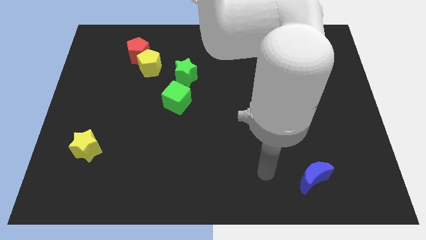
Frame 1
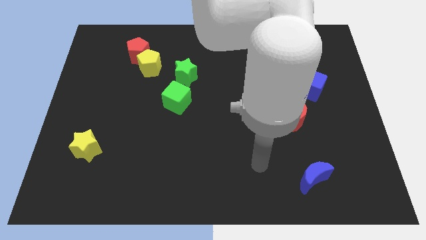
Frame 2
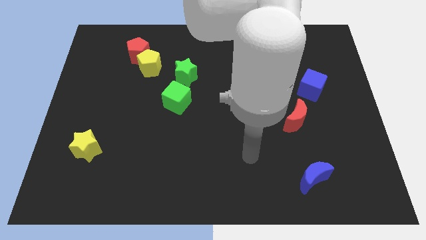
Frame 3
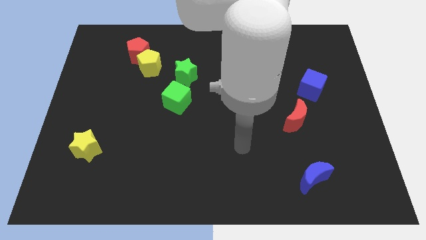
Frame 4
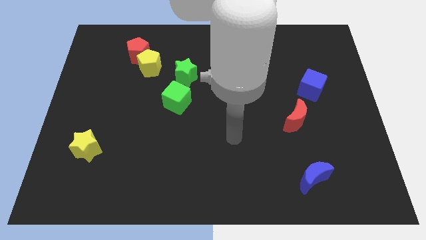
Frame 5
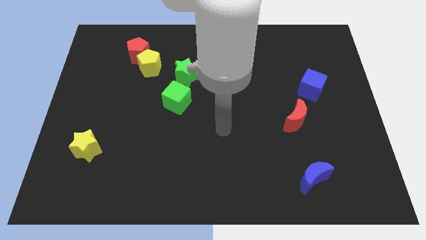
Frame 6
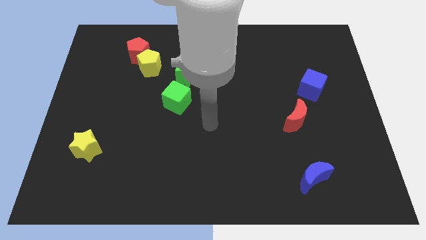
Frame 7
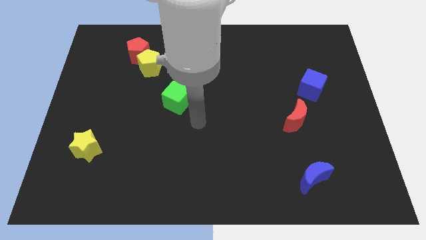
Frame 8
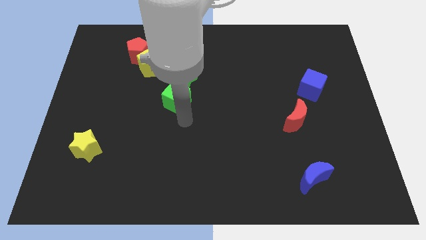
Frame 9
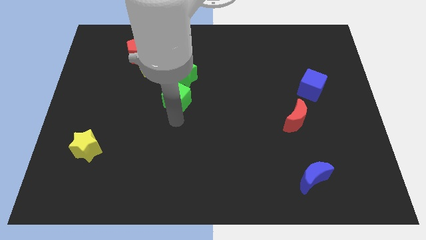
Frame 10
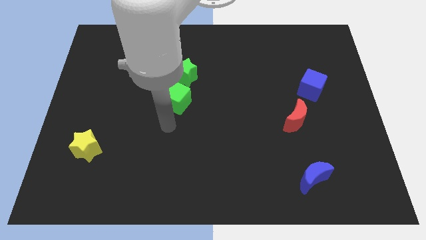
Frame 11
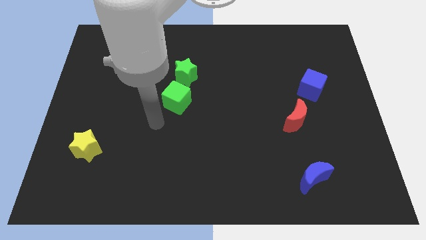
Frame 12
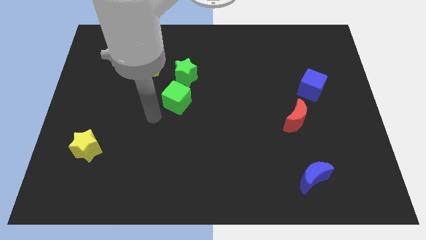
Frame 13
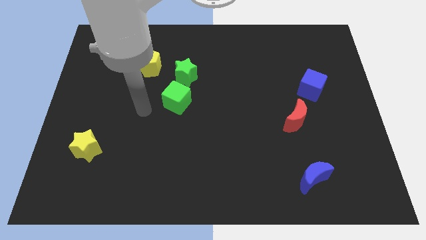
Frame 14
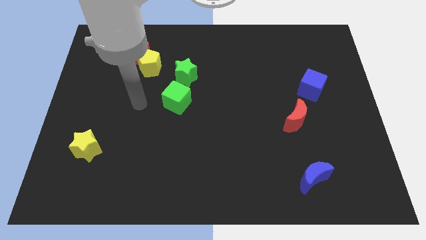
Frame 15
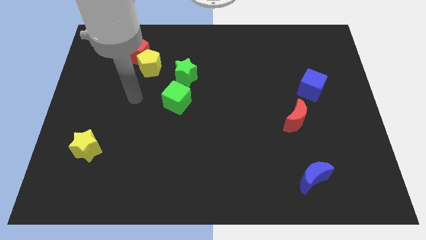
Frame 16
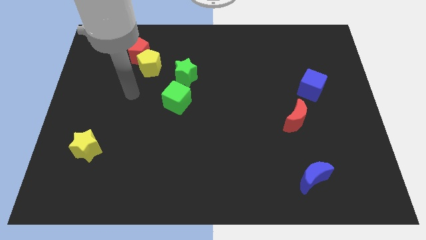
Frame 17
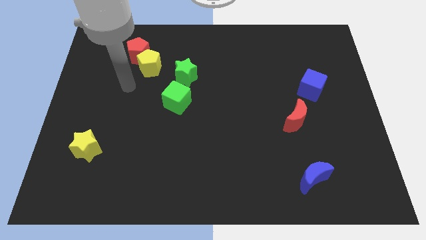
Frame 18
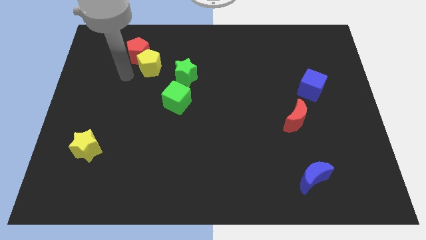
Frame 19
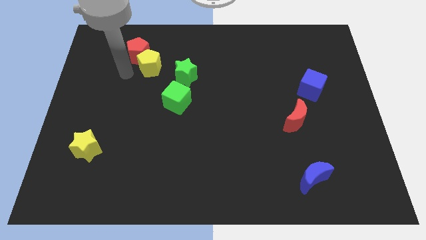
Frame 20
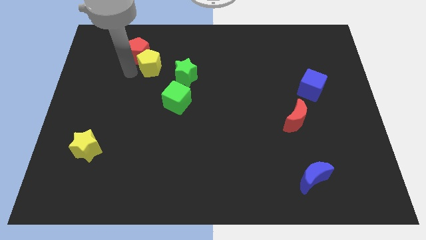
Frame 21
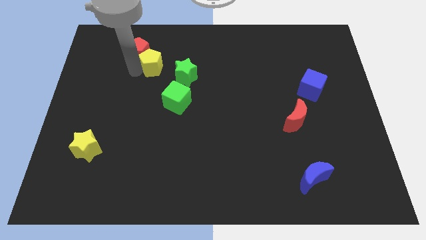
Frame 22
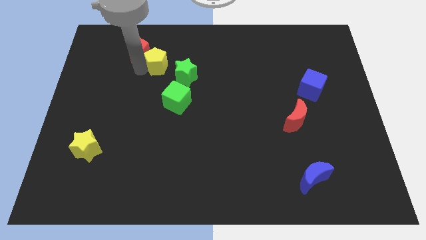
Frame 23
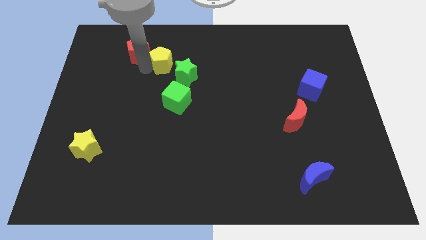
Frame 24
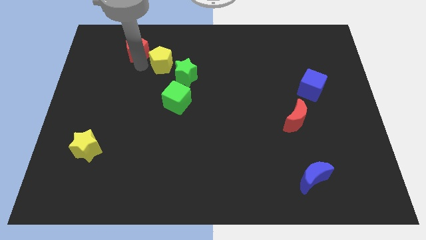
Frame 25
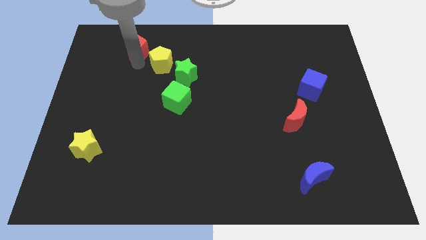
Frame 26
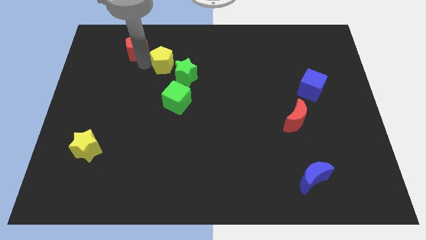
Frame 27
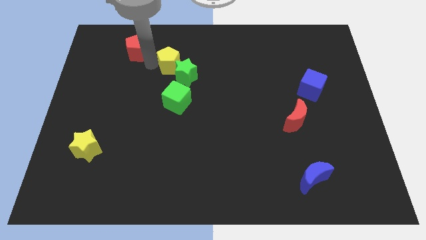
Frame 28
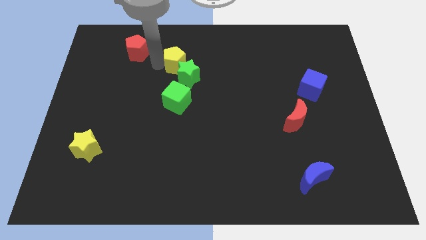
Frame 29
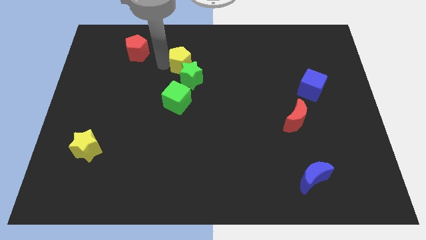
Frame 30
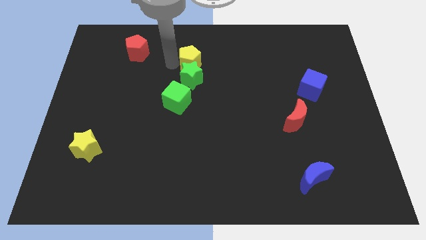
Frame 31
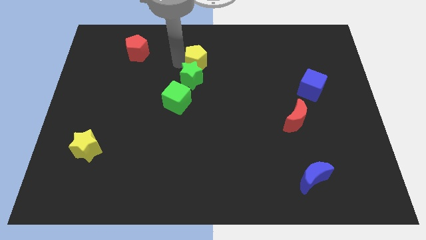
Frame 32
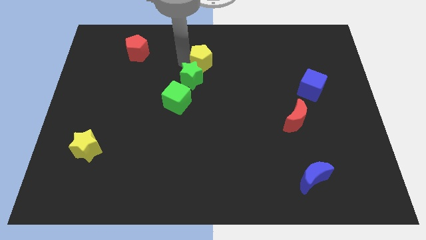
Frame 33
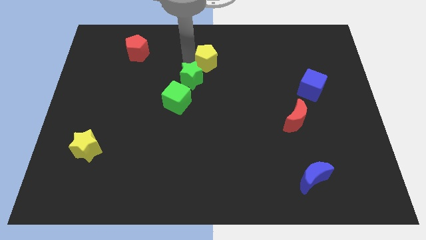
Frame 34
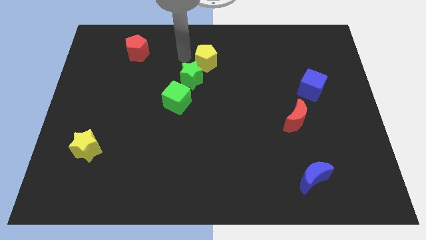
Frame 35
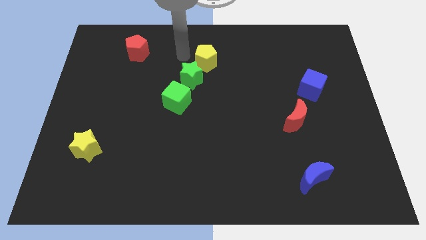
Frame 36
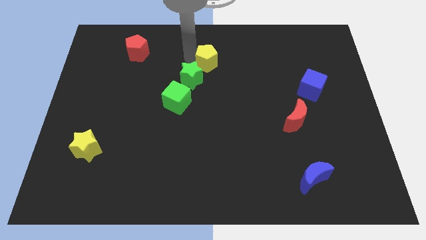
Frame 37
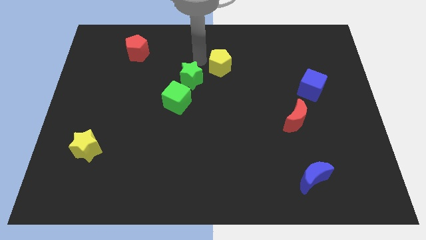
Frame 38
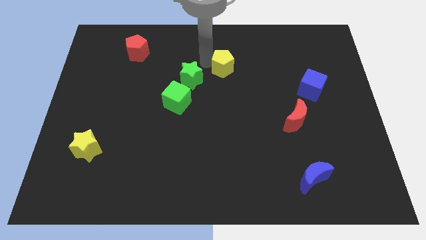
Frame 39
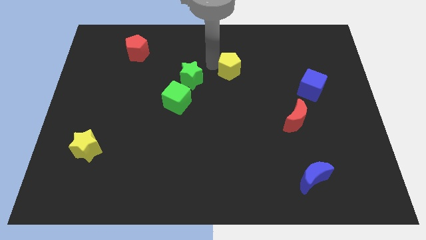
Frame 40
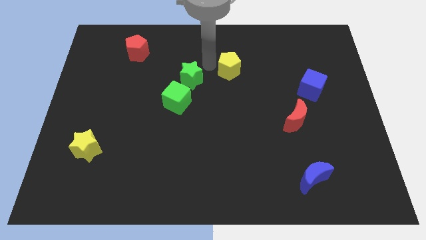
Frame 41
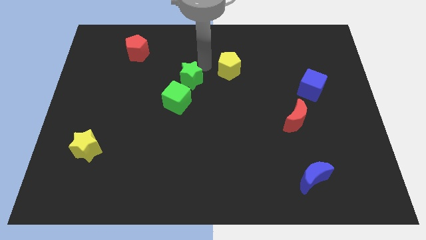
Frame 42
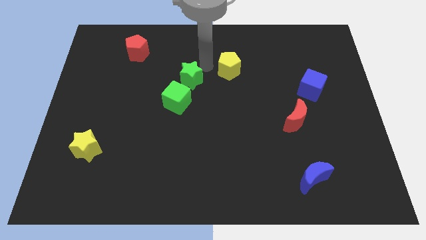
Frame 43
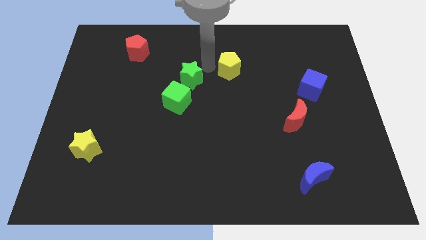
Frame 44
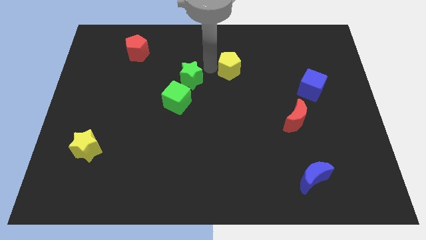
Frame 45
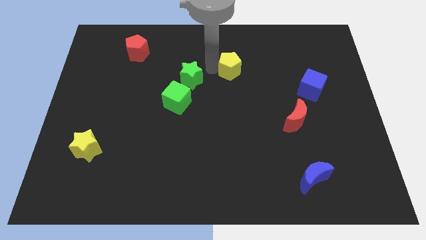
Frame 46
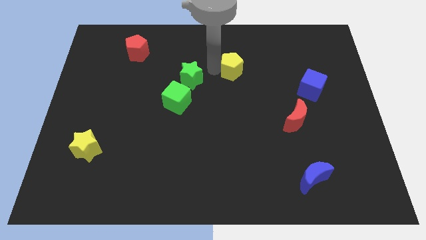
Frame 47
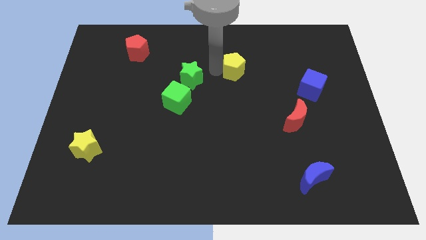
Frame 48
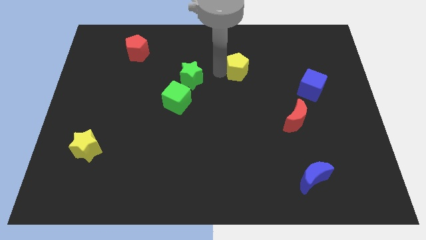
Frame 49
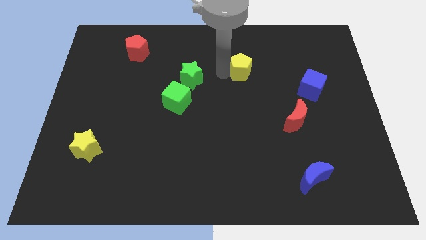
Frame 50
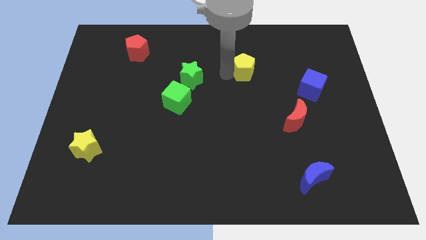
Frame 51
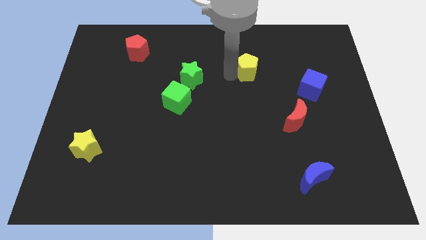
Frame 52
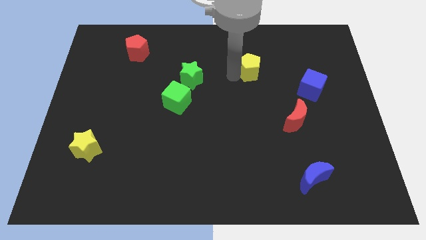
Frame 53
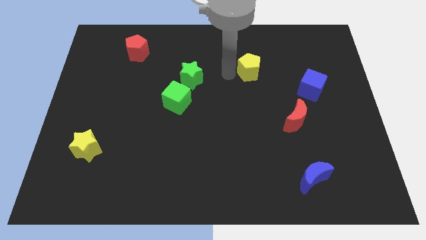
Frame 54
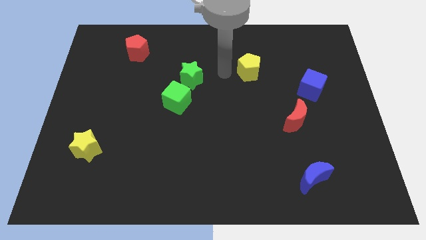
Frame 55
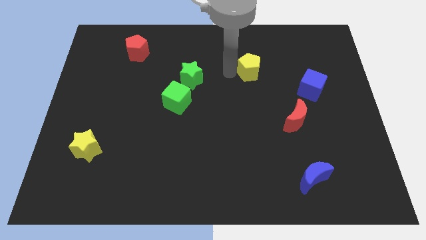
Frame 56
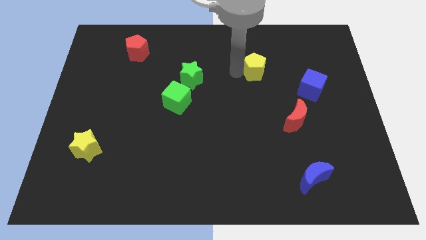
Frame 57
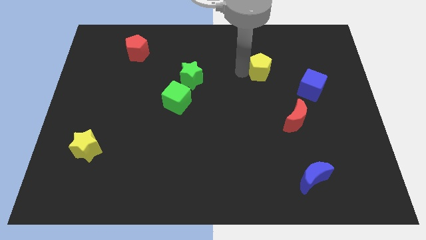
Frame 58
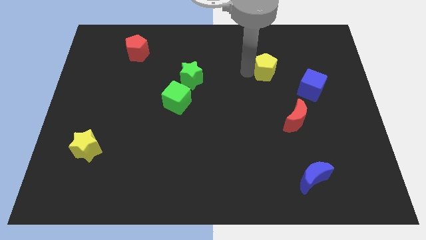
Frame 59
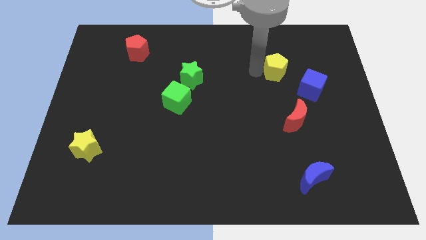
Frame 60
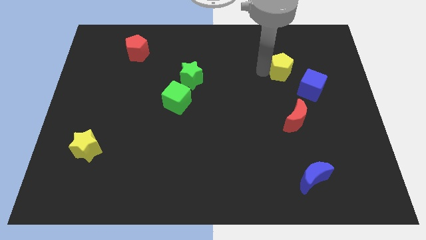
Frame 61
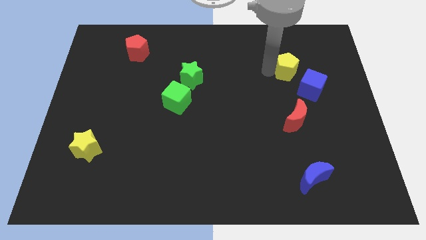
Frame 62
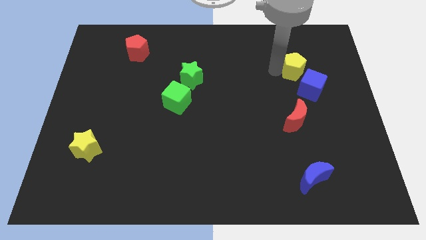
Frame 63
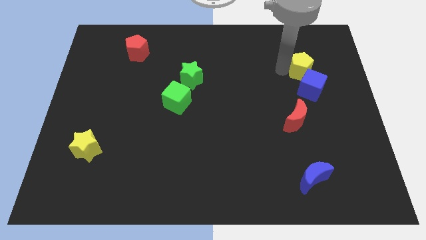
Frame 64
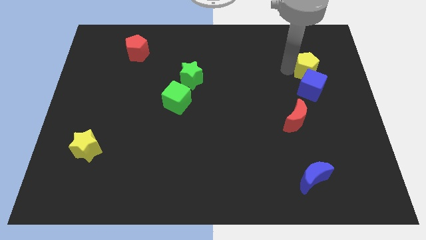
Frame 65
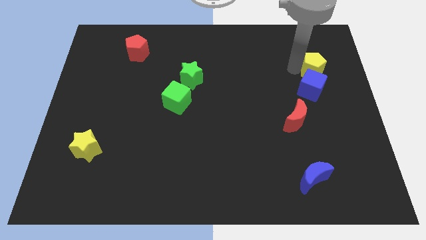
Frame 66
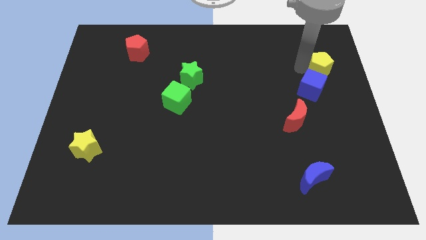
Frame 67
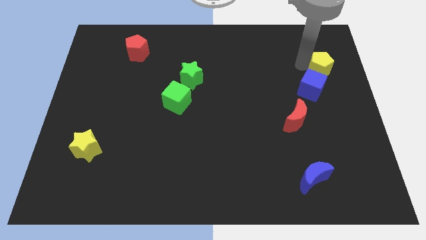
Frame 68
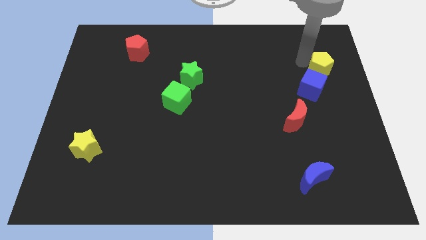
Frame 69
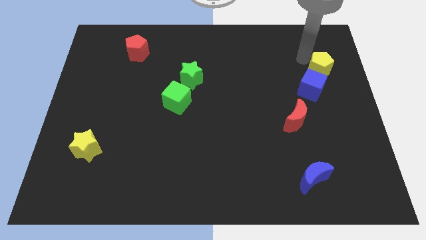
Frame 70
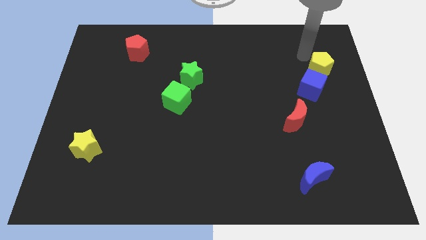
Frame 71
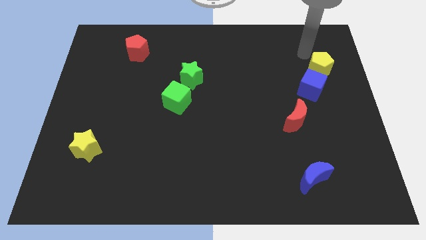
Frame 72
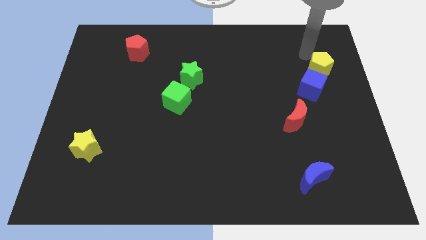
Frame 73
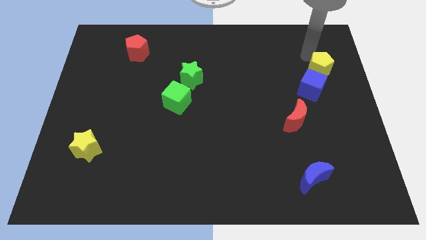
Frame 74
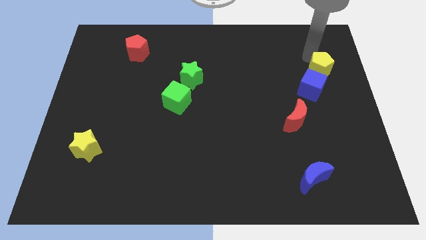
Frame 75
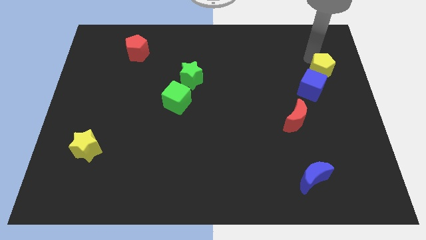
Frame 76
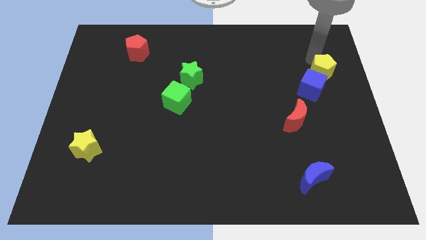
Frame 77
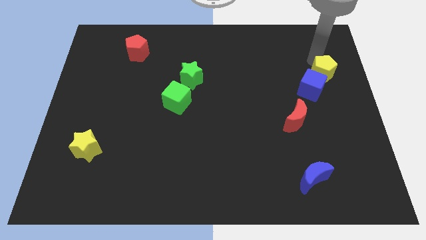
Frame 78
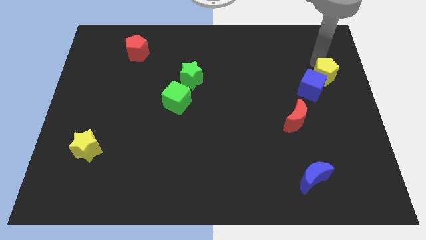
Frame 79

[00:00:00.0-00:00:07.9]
put the yellow pentagon to the center right
